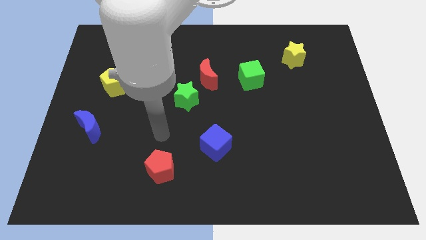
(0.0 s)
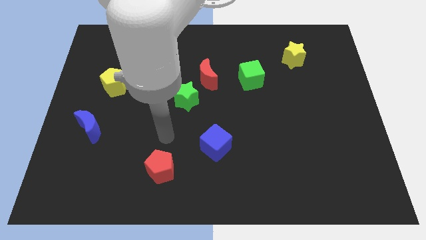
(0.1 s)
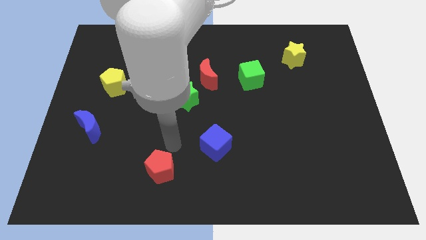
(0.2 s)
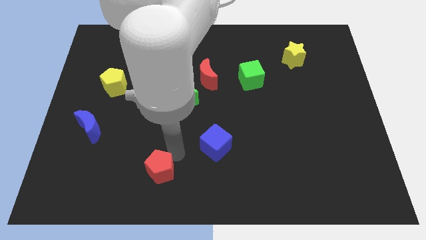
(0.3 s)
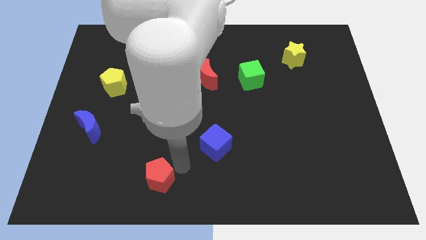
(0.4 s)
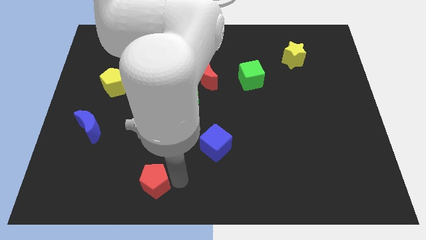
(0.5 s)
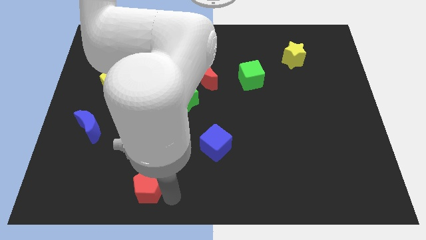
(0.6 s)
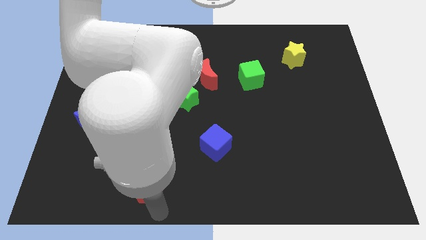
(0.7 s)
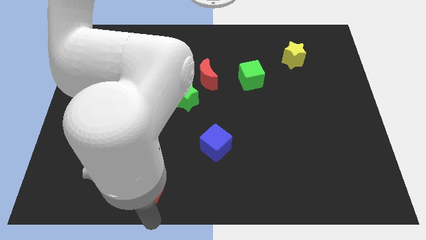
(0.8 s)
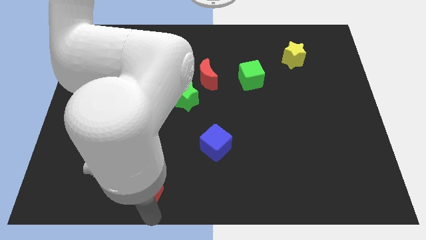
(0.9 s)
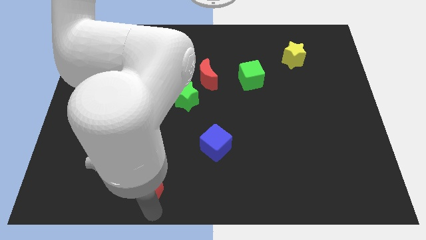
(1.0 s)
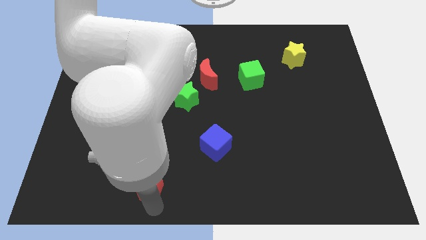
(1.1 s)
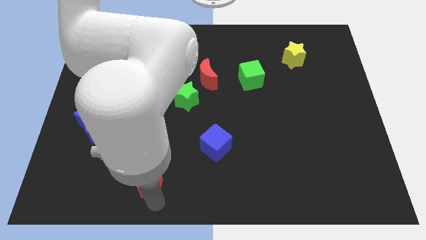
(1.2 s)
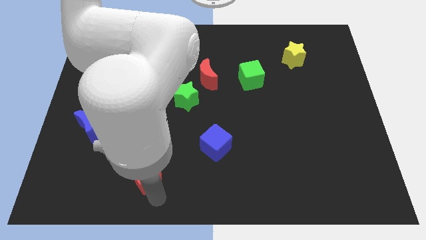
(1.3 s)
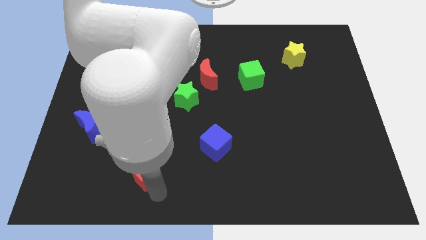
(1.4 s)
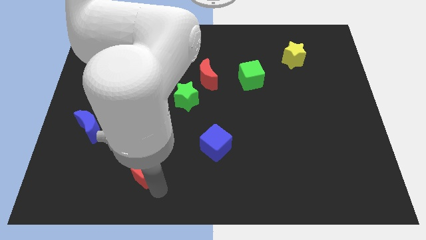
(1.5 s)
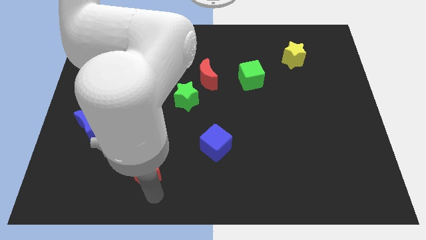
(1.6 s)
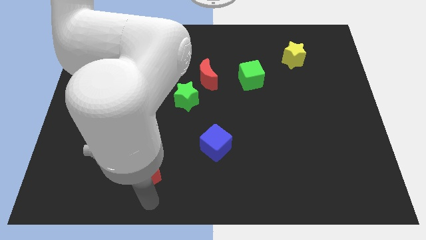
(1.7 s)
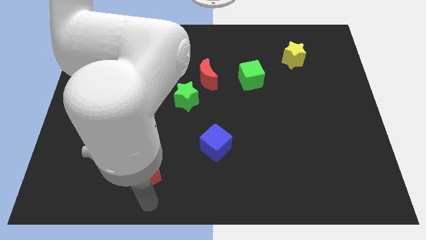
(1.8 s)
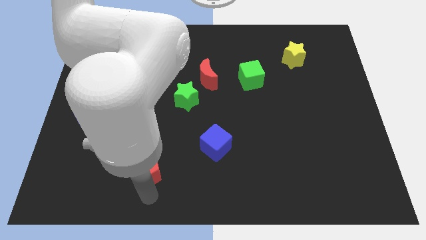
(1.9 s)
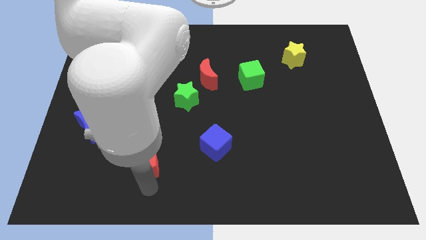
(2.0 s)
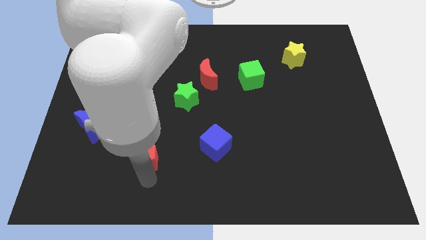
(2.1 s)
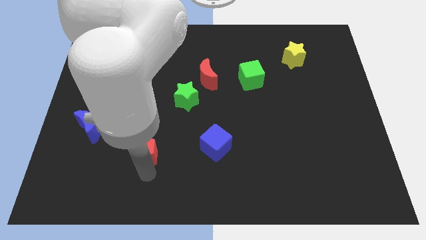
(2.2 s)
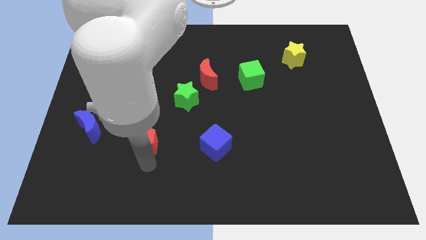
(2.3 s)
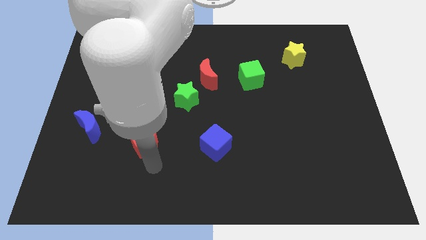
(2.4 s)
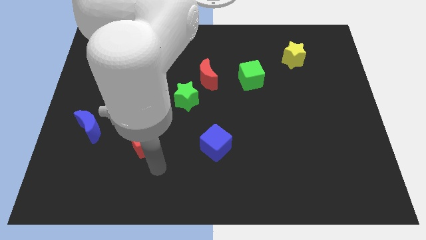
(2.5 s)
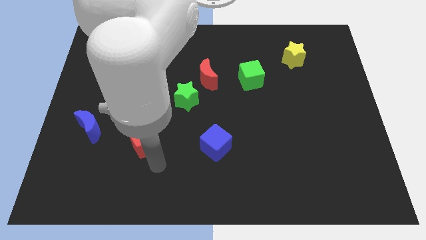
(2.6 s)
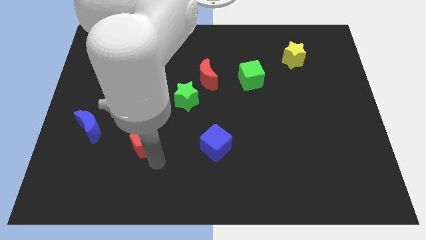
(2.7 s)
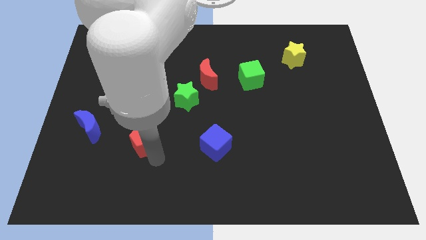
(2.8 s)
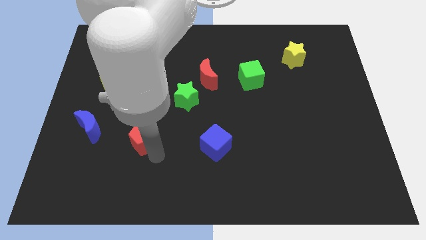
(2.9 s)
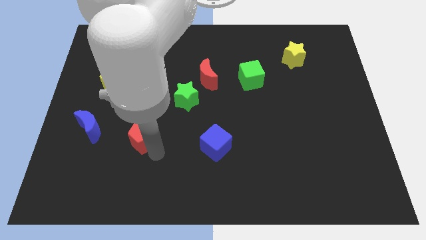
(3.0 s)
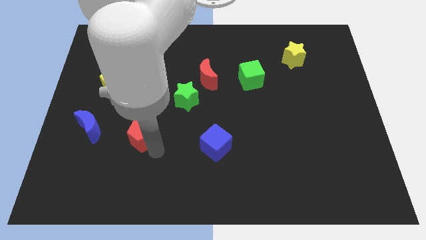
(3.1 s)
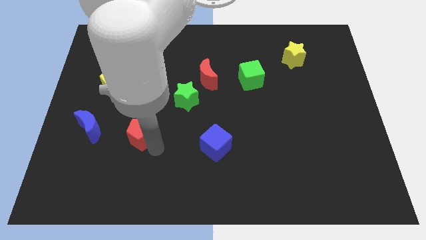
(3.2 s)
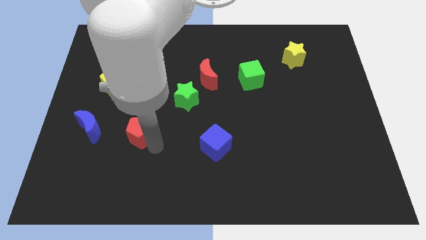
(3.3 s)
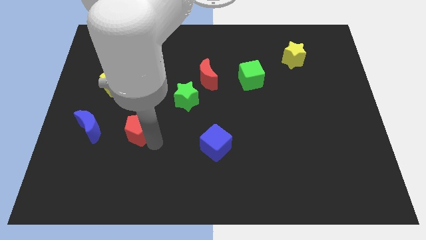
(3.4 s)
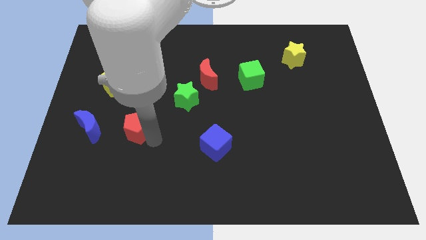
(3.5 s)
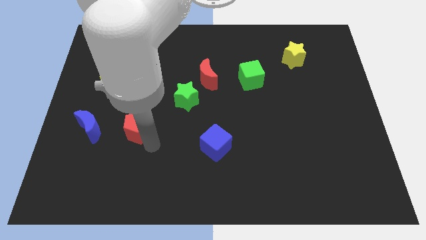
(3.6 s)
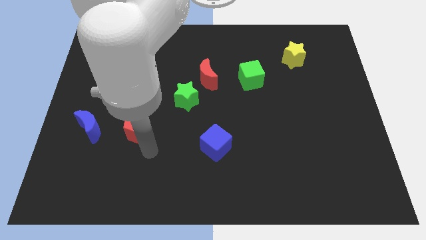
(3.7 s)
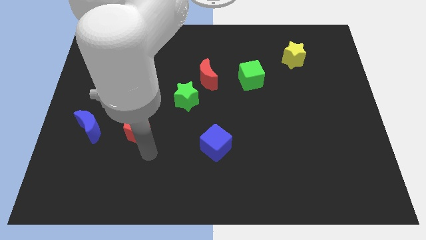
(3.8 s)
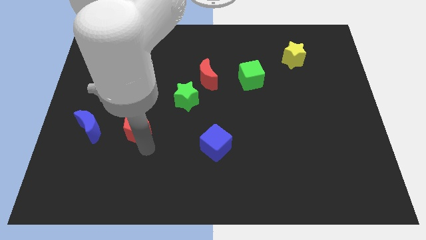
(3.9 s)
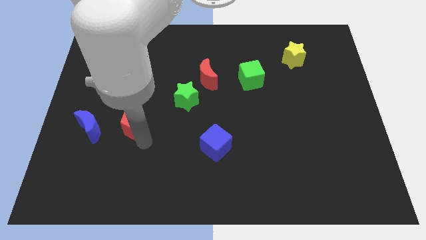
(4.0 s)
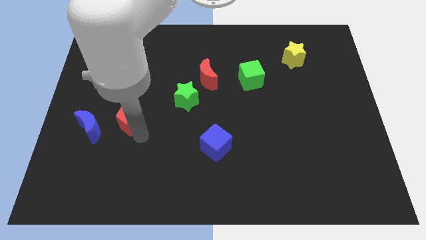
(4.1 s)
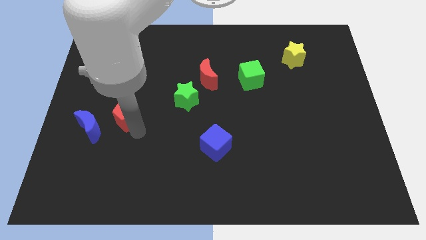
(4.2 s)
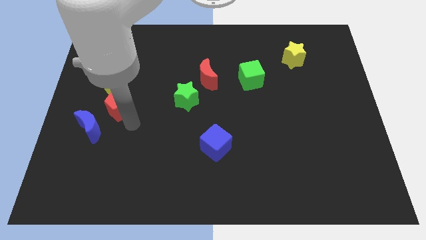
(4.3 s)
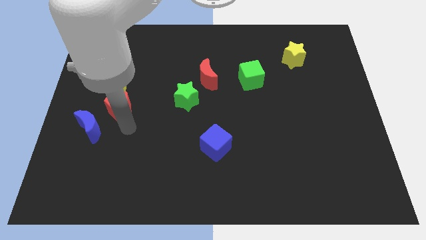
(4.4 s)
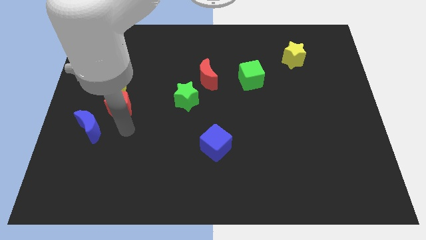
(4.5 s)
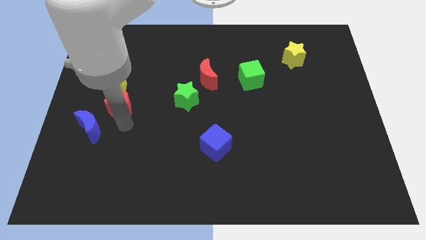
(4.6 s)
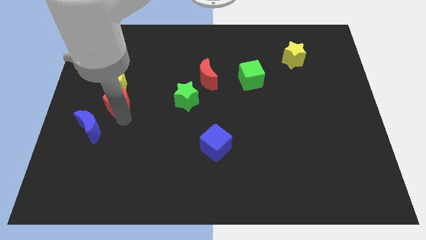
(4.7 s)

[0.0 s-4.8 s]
push the red pentagon close to the yellow pentagon

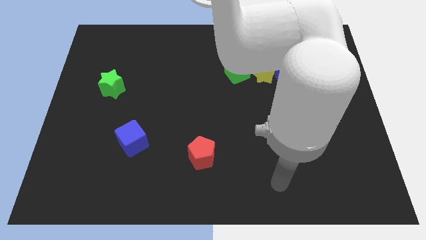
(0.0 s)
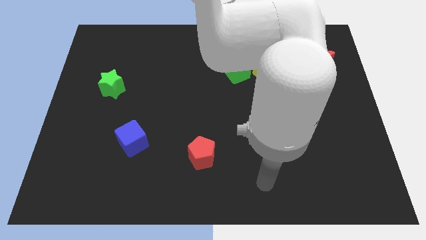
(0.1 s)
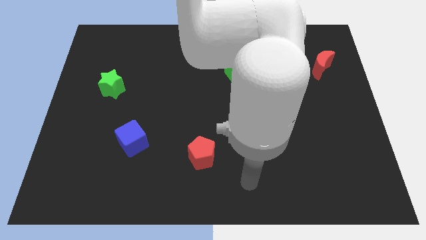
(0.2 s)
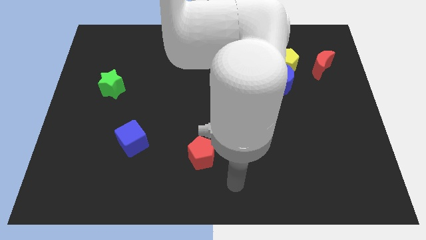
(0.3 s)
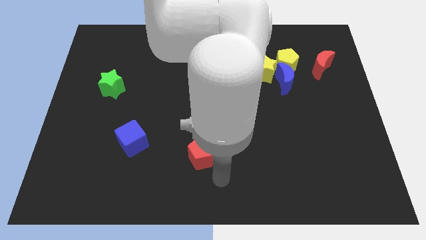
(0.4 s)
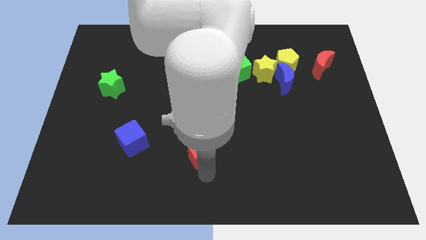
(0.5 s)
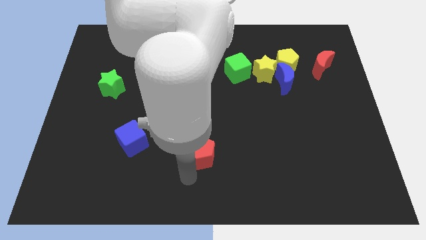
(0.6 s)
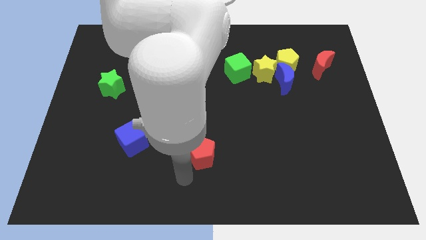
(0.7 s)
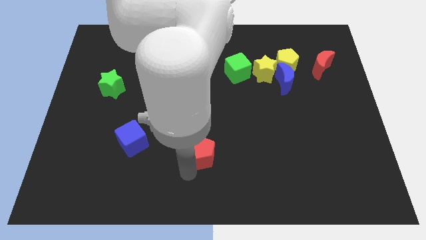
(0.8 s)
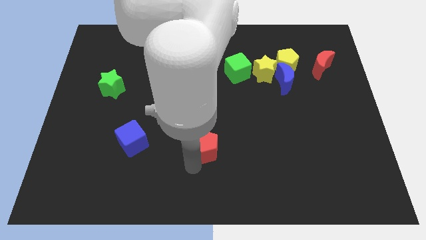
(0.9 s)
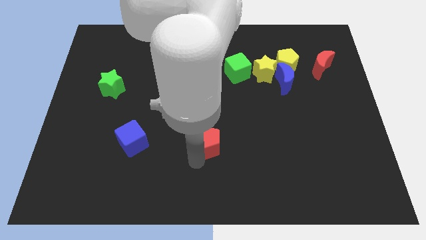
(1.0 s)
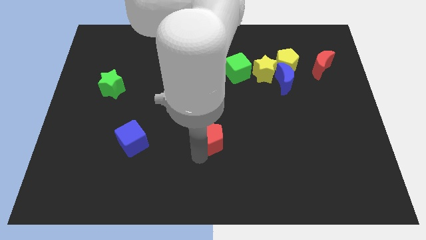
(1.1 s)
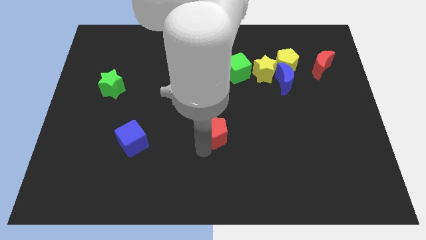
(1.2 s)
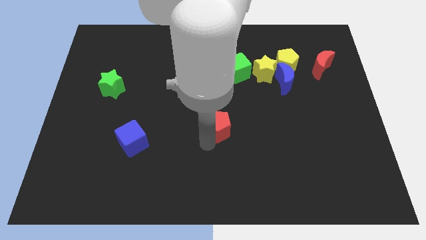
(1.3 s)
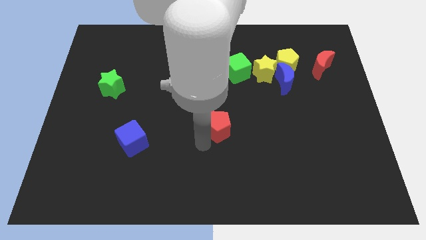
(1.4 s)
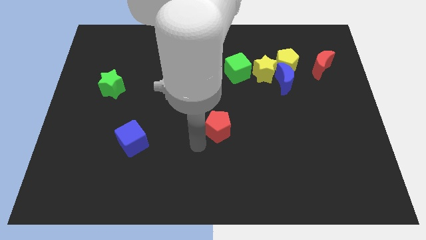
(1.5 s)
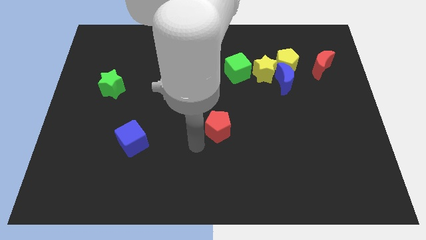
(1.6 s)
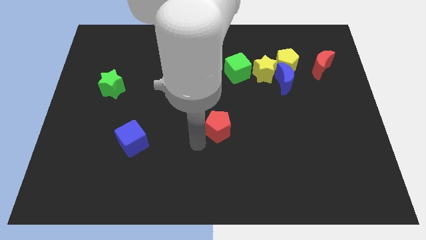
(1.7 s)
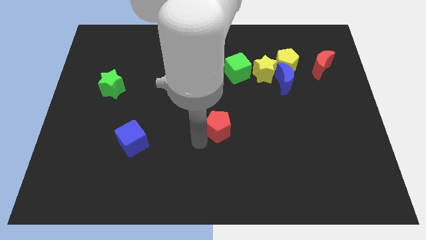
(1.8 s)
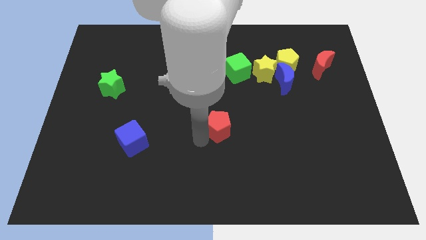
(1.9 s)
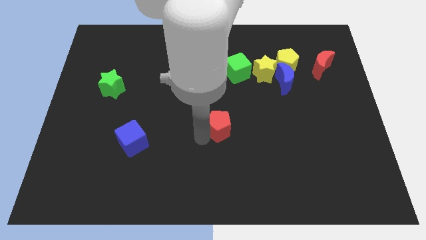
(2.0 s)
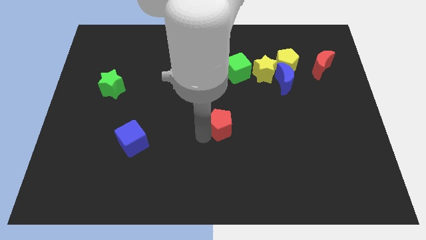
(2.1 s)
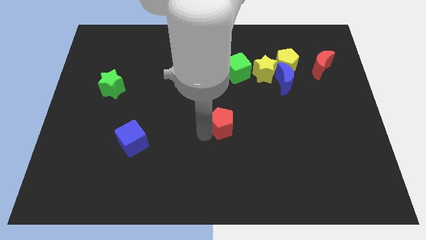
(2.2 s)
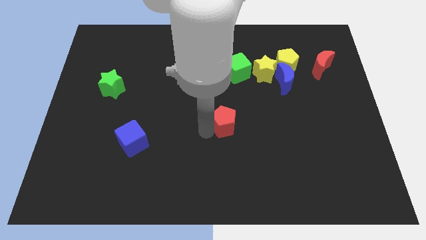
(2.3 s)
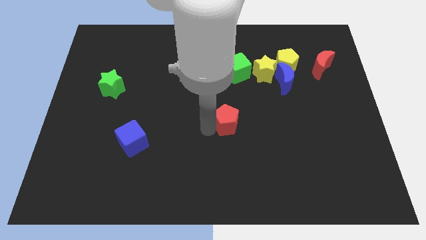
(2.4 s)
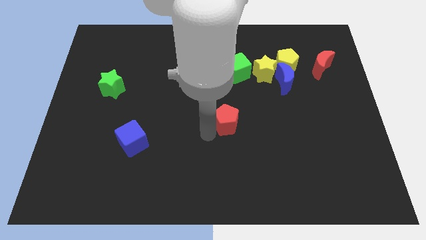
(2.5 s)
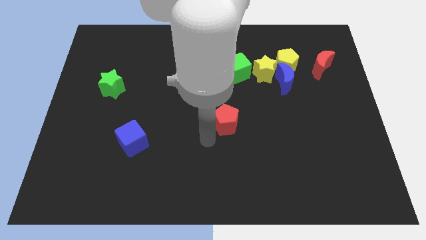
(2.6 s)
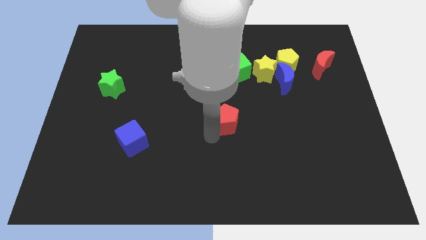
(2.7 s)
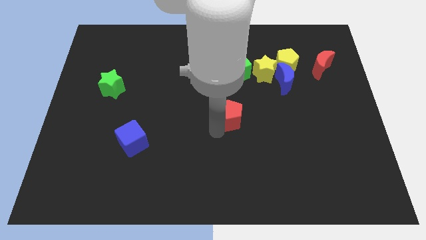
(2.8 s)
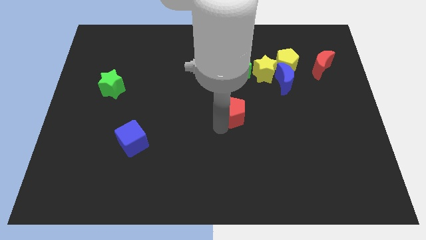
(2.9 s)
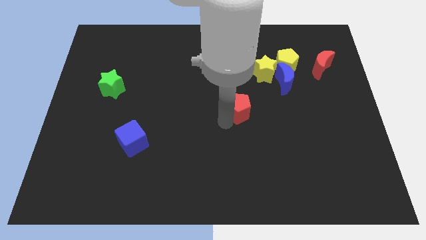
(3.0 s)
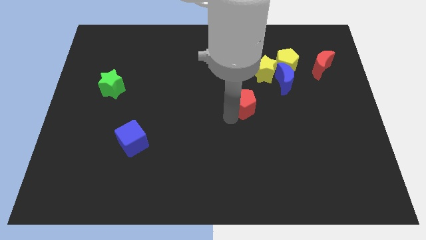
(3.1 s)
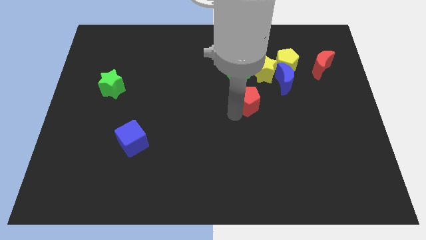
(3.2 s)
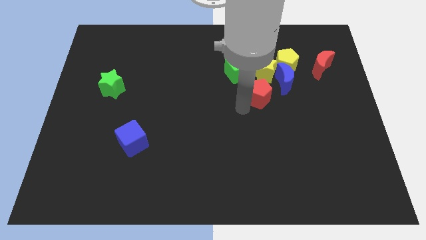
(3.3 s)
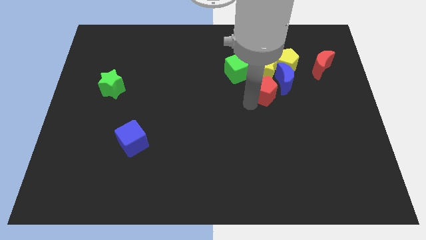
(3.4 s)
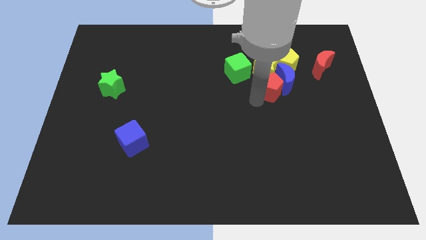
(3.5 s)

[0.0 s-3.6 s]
push the red pentagon close to the yellow star
